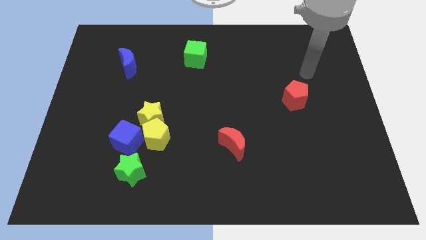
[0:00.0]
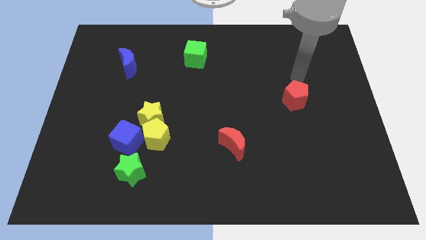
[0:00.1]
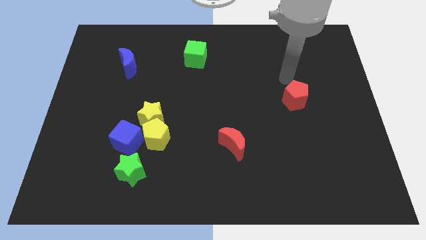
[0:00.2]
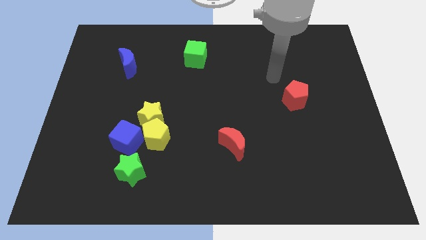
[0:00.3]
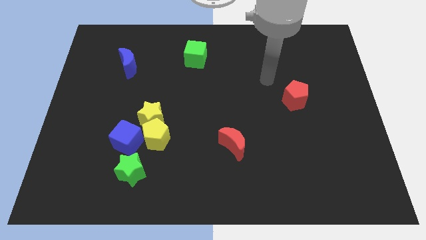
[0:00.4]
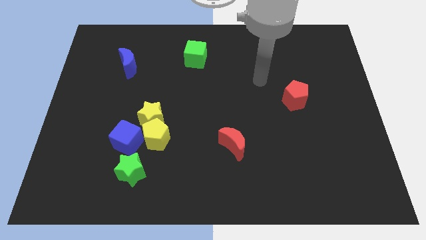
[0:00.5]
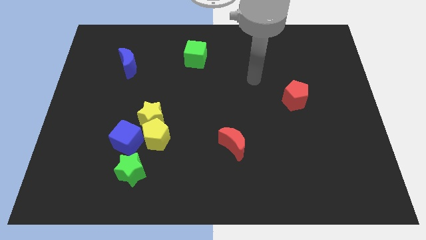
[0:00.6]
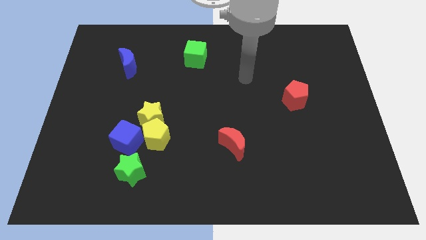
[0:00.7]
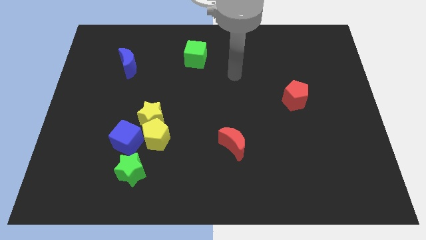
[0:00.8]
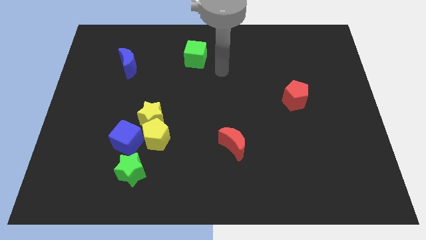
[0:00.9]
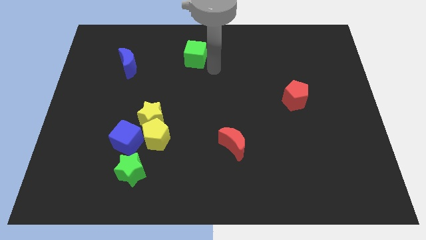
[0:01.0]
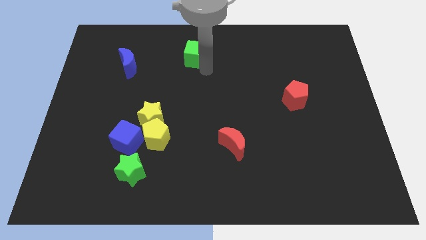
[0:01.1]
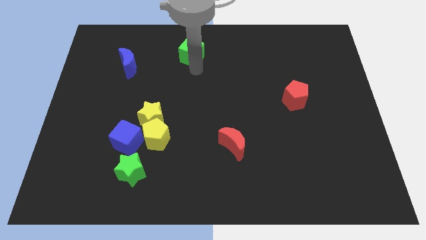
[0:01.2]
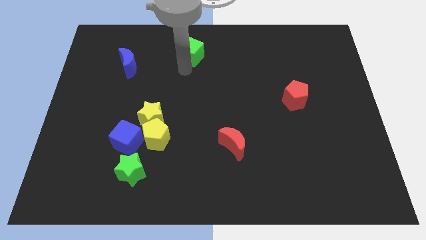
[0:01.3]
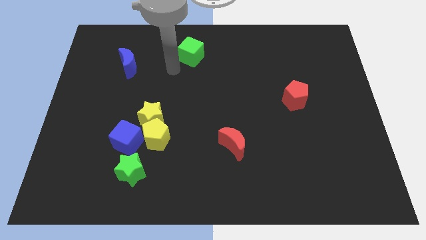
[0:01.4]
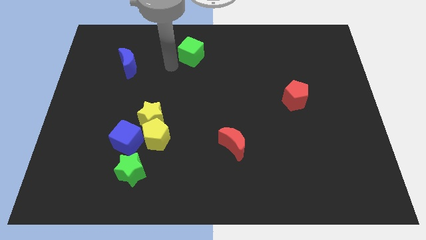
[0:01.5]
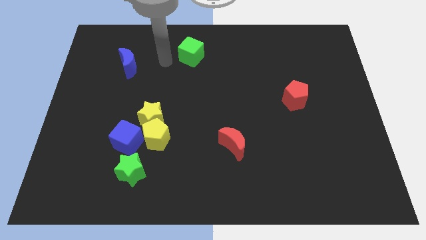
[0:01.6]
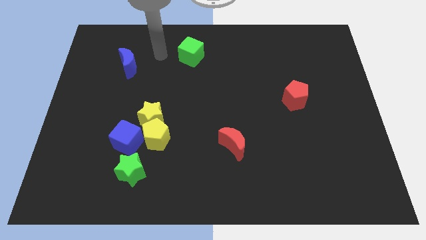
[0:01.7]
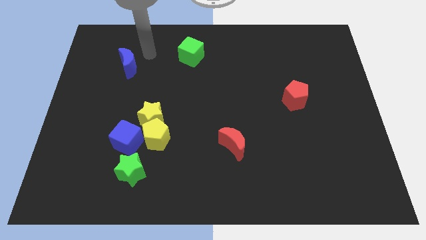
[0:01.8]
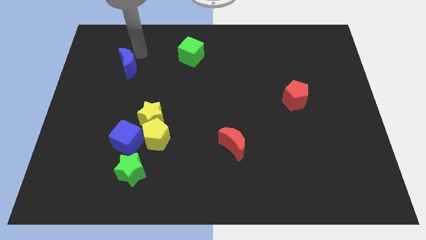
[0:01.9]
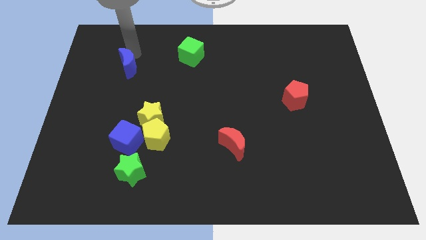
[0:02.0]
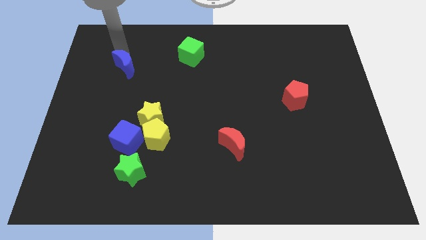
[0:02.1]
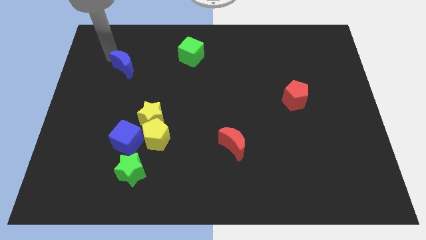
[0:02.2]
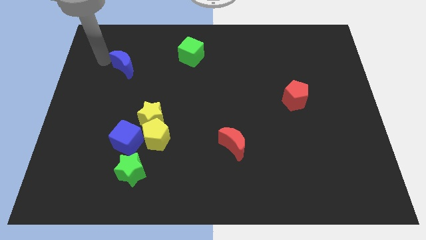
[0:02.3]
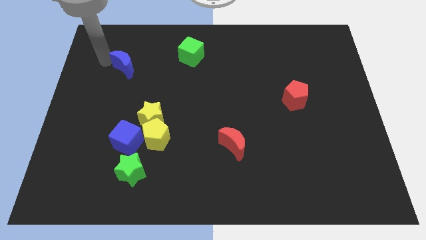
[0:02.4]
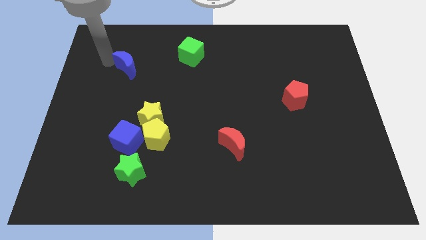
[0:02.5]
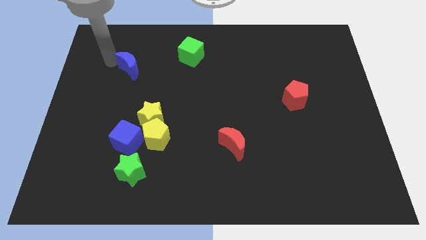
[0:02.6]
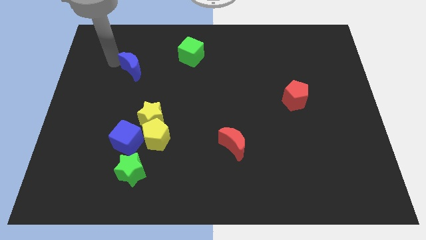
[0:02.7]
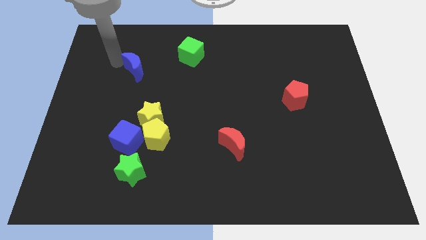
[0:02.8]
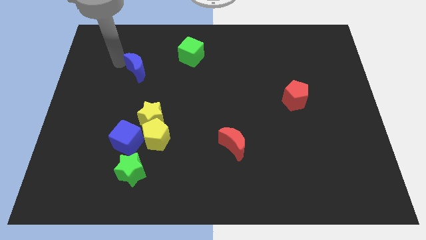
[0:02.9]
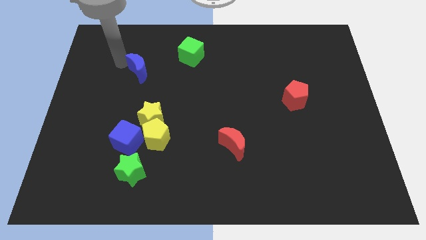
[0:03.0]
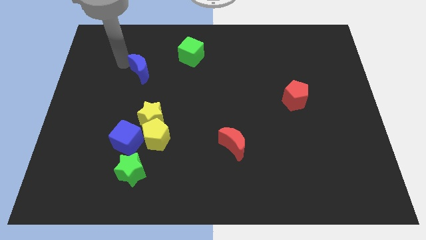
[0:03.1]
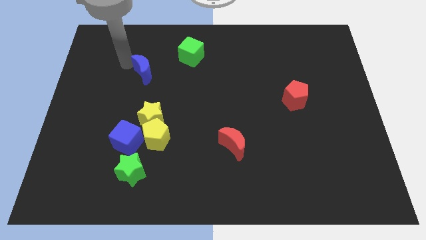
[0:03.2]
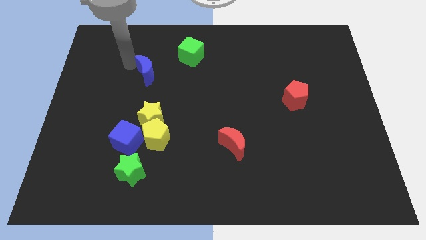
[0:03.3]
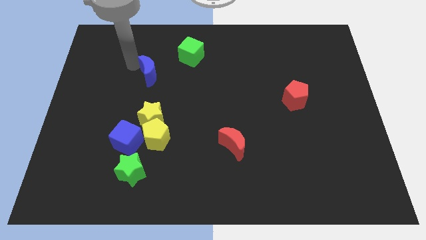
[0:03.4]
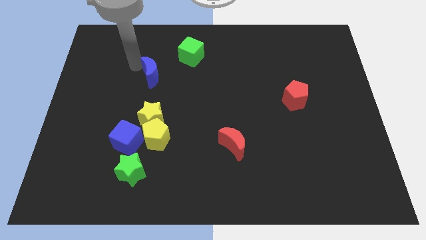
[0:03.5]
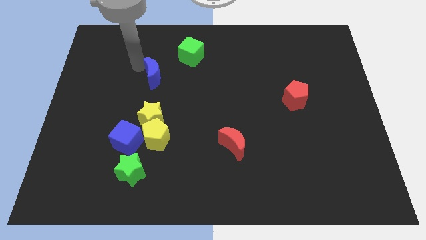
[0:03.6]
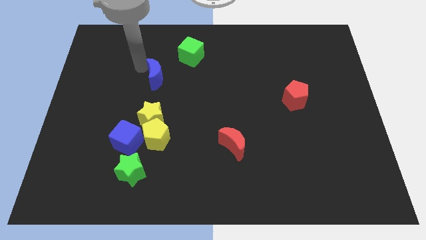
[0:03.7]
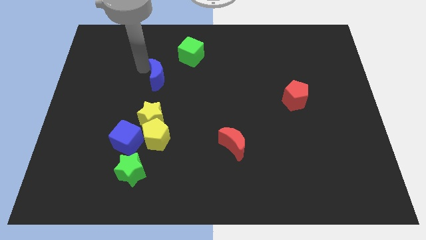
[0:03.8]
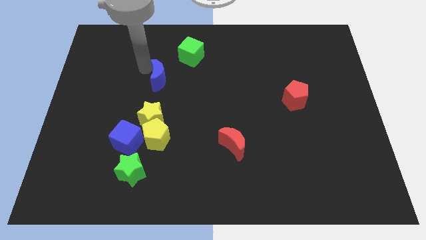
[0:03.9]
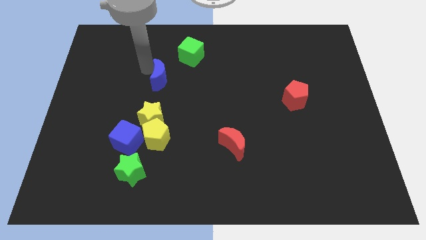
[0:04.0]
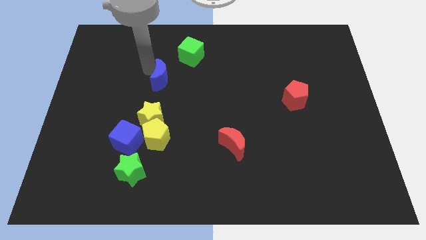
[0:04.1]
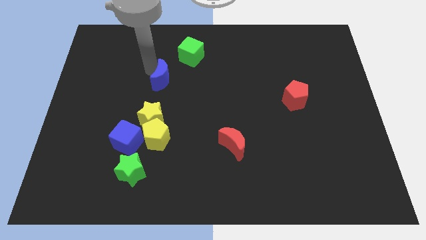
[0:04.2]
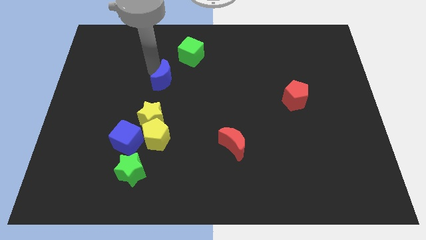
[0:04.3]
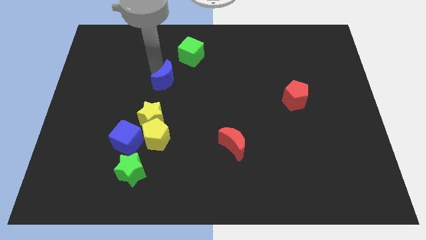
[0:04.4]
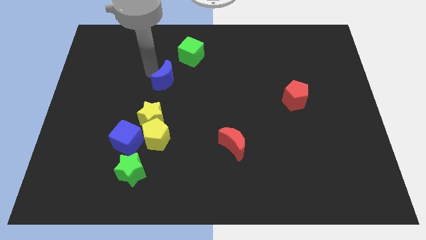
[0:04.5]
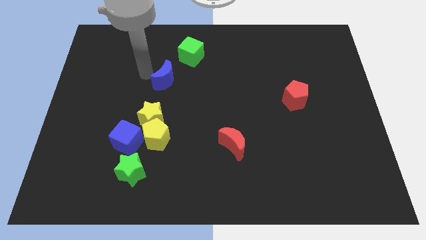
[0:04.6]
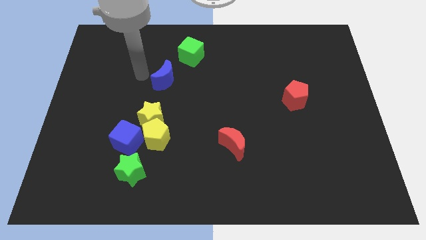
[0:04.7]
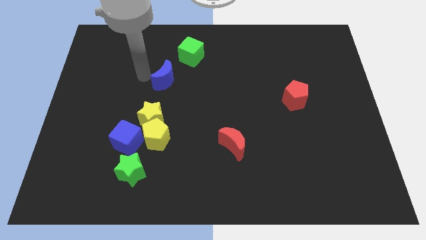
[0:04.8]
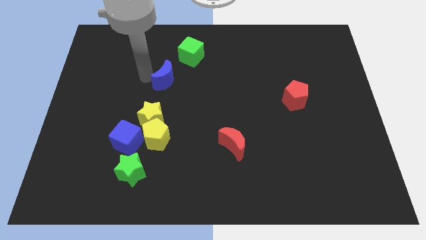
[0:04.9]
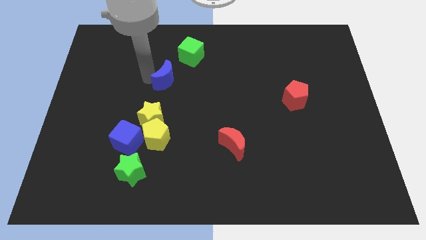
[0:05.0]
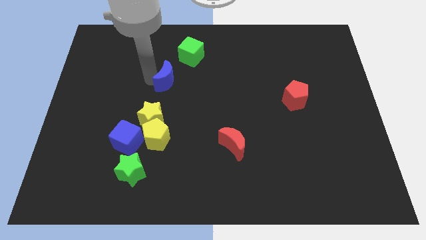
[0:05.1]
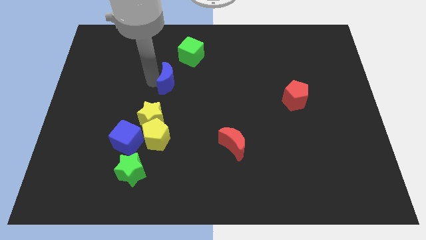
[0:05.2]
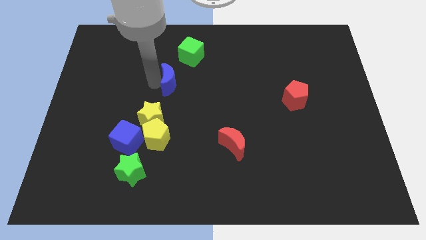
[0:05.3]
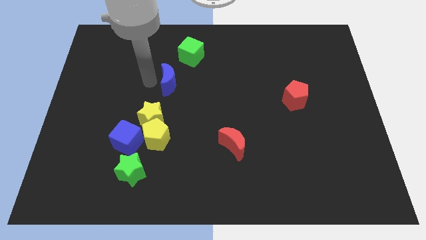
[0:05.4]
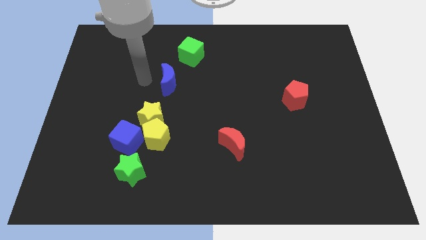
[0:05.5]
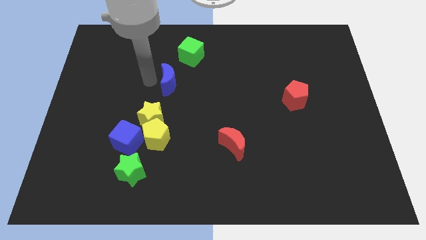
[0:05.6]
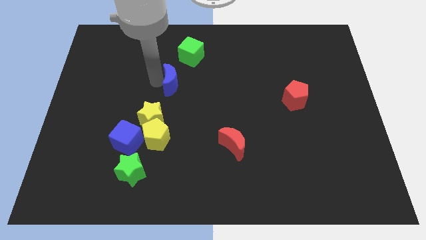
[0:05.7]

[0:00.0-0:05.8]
move the blue moon to the bottom side of the green cube

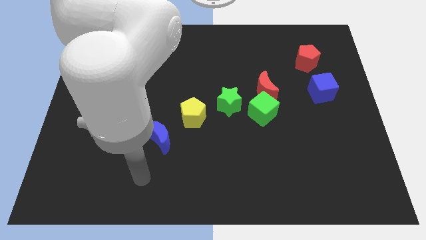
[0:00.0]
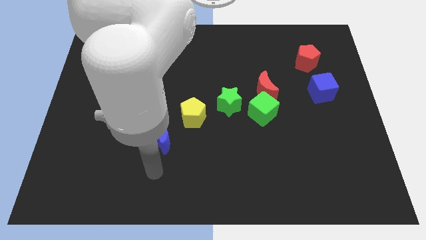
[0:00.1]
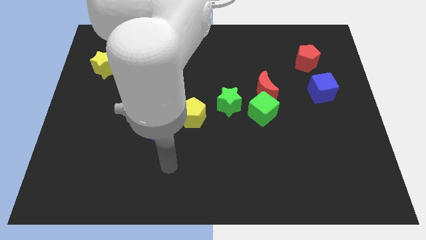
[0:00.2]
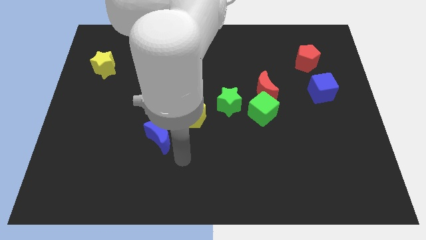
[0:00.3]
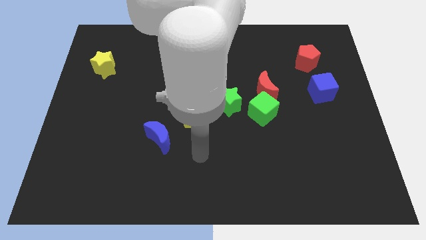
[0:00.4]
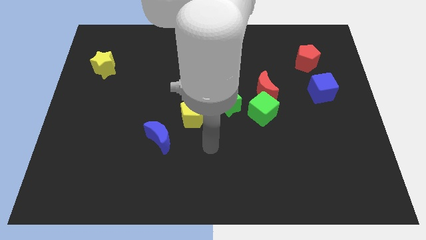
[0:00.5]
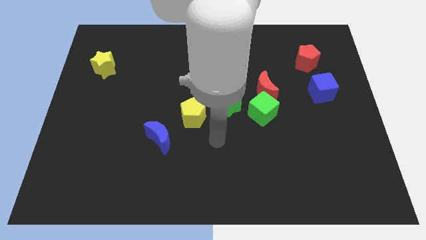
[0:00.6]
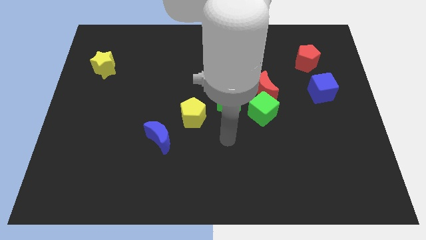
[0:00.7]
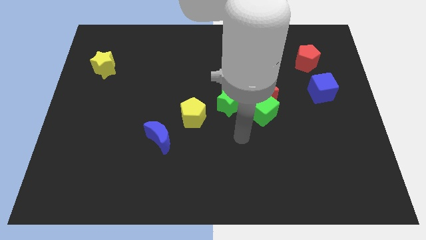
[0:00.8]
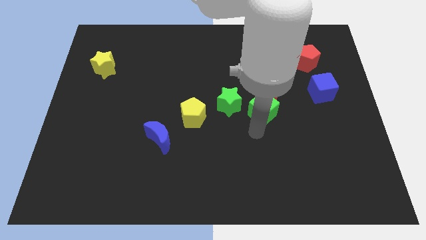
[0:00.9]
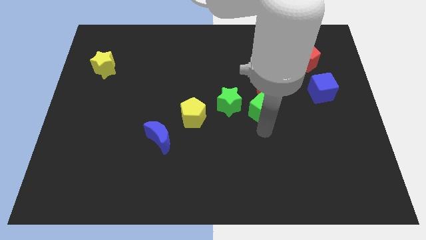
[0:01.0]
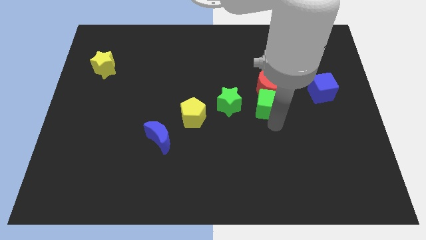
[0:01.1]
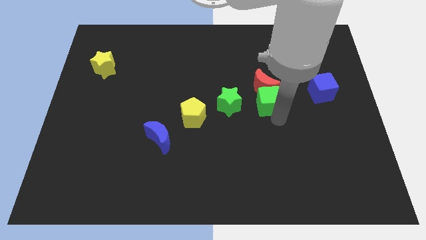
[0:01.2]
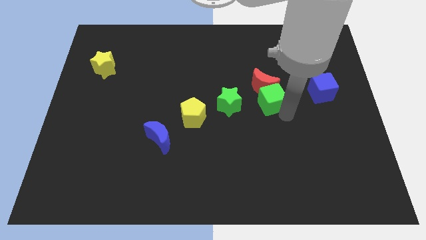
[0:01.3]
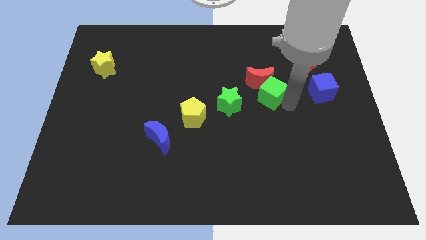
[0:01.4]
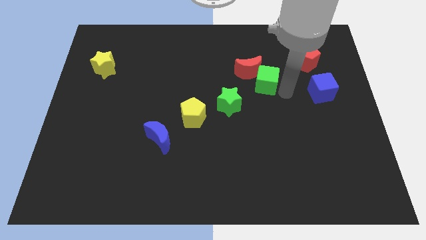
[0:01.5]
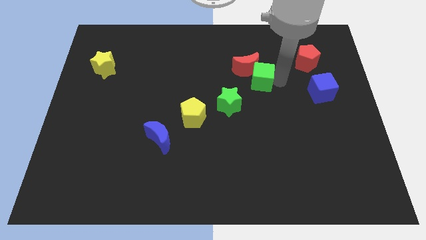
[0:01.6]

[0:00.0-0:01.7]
put the red moon to the top side of the green star
